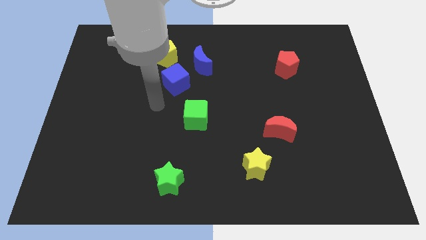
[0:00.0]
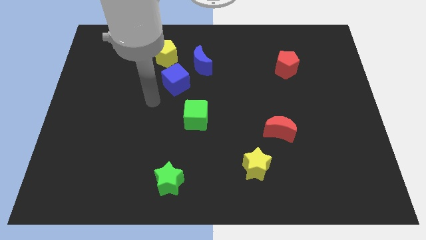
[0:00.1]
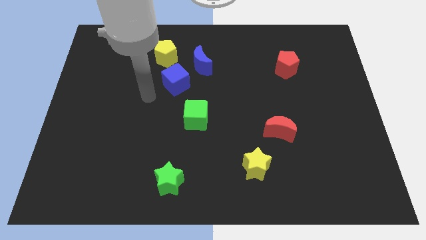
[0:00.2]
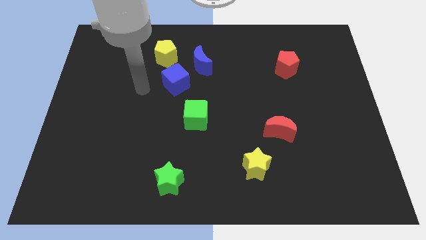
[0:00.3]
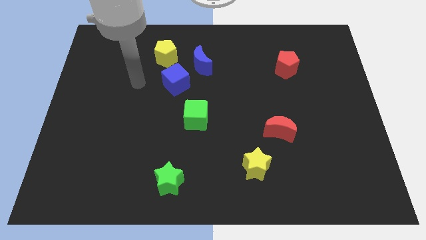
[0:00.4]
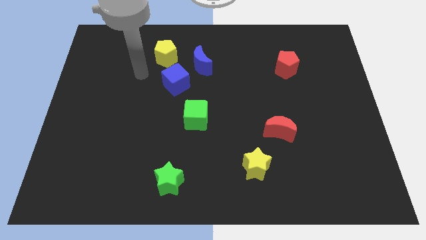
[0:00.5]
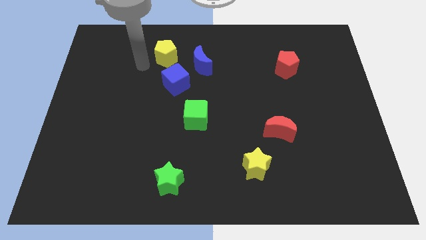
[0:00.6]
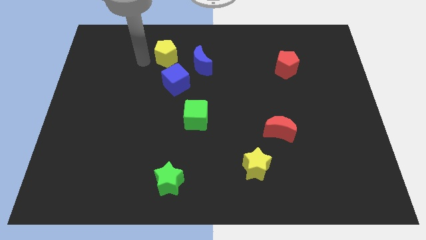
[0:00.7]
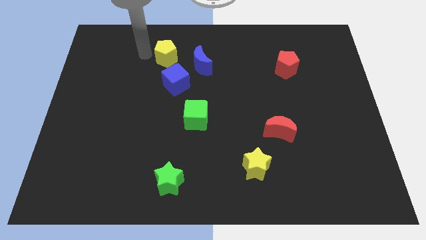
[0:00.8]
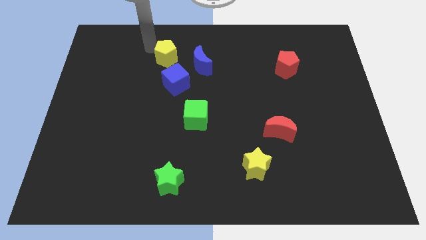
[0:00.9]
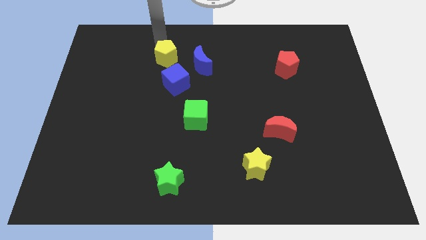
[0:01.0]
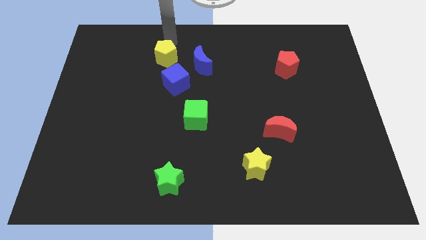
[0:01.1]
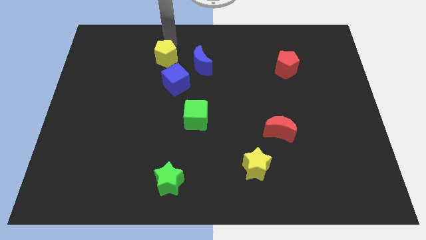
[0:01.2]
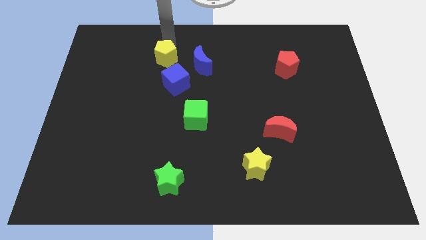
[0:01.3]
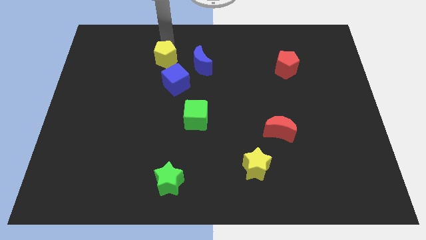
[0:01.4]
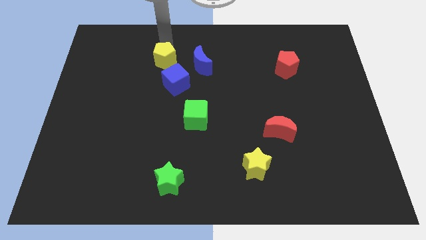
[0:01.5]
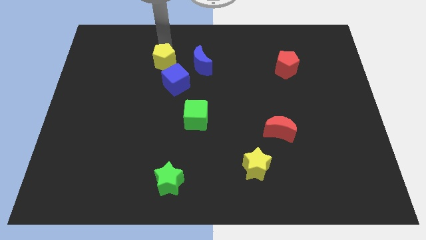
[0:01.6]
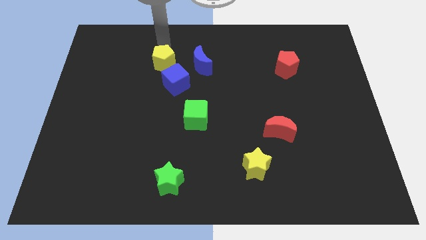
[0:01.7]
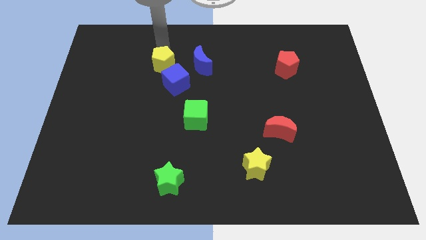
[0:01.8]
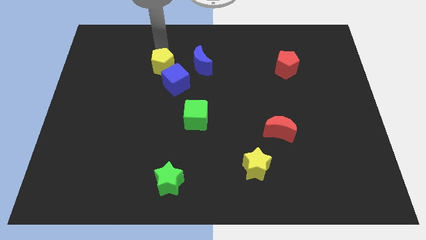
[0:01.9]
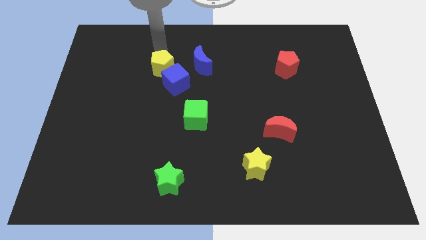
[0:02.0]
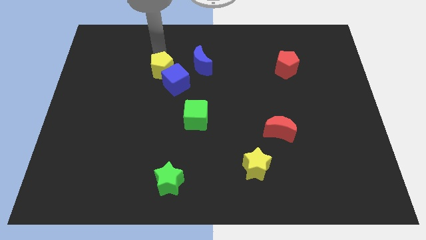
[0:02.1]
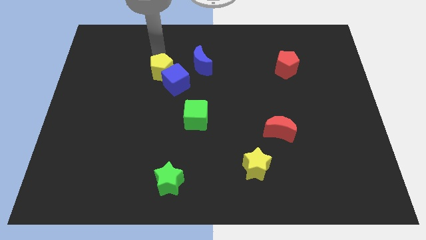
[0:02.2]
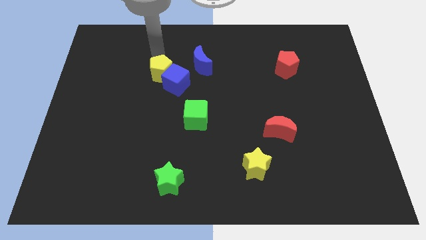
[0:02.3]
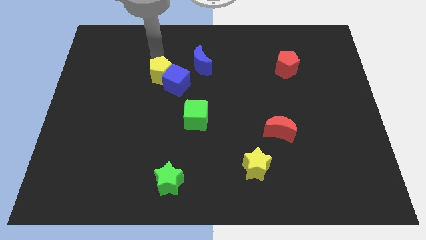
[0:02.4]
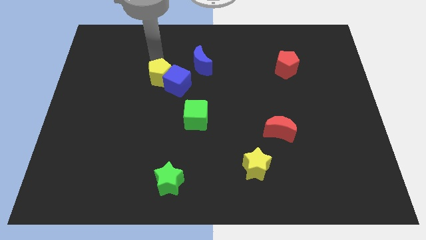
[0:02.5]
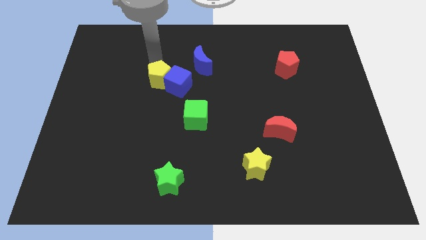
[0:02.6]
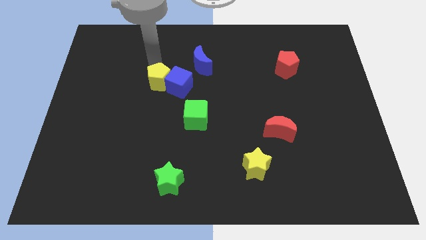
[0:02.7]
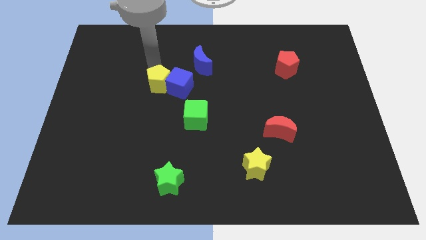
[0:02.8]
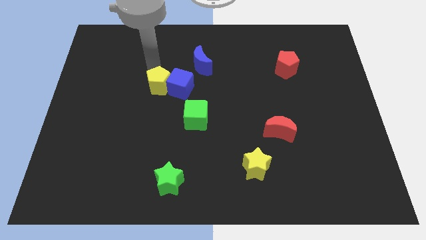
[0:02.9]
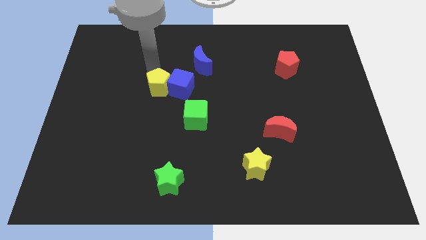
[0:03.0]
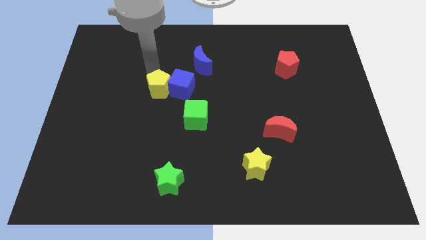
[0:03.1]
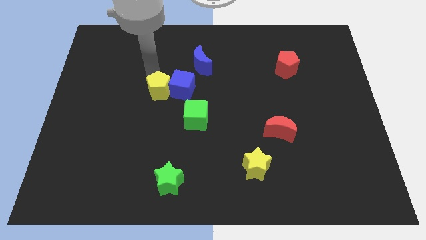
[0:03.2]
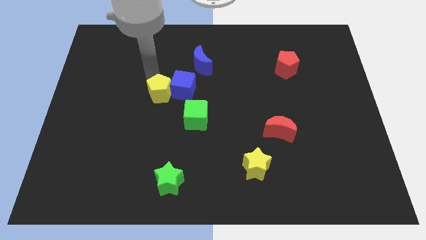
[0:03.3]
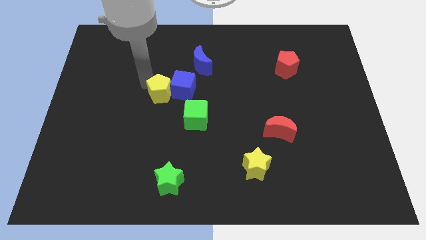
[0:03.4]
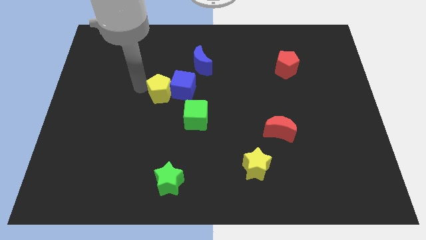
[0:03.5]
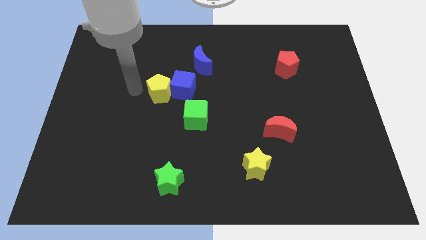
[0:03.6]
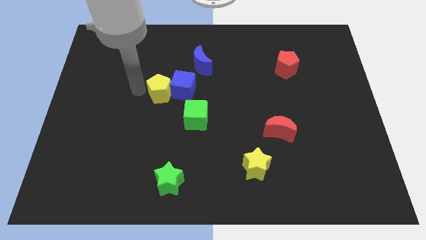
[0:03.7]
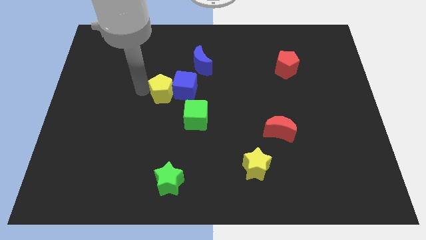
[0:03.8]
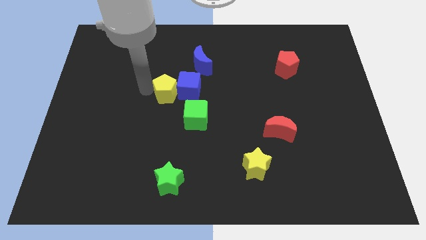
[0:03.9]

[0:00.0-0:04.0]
move the yellow pentagon a little diagonally down and right

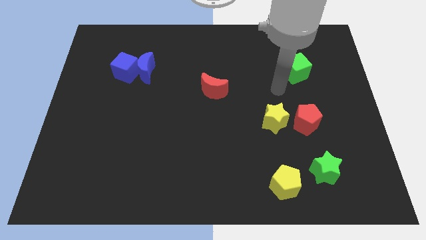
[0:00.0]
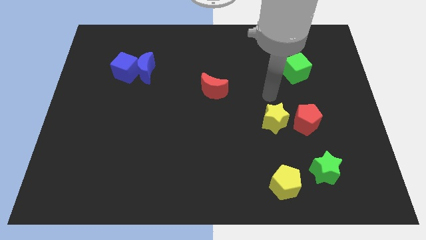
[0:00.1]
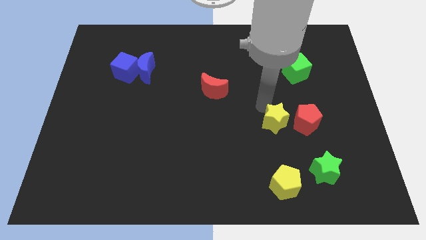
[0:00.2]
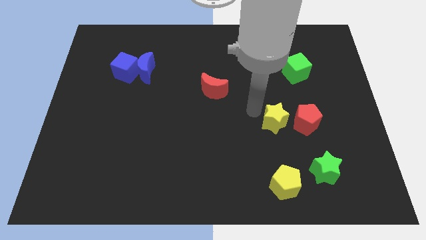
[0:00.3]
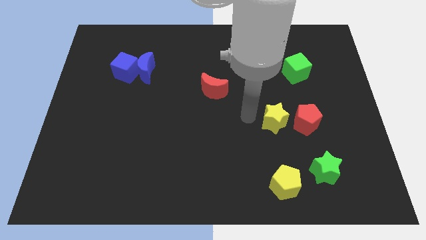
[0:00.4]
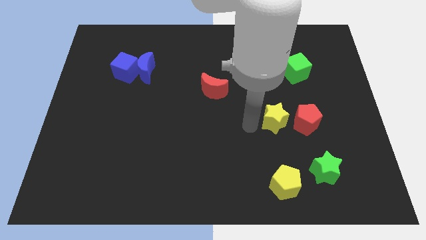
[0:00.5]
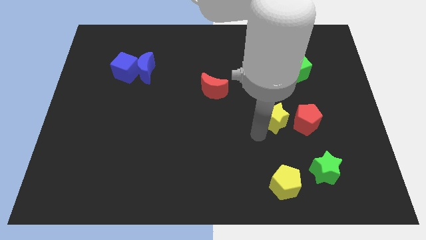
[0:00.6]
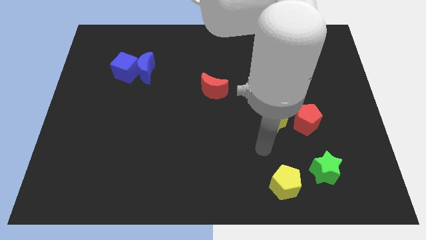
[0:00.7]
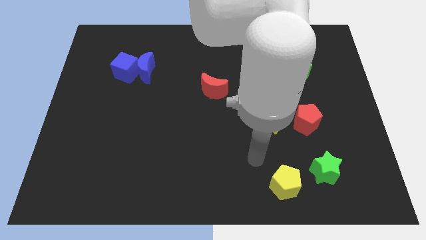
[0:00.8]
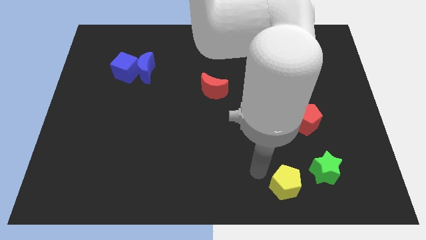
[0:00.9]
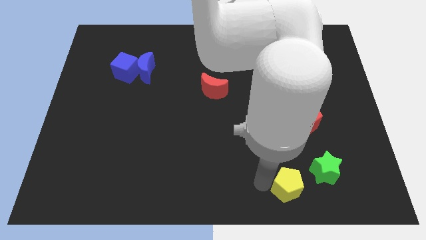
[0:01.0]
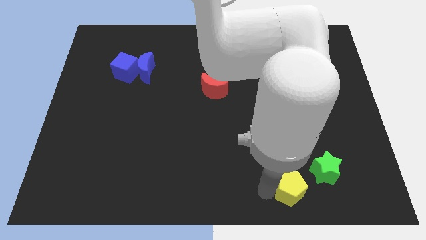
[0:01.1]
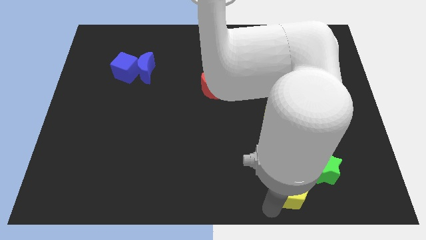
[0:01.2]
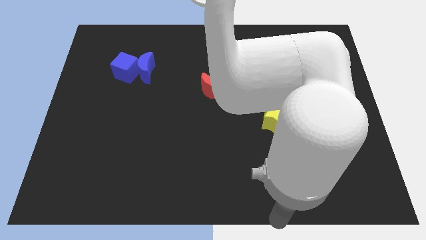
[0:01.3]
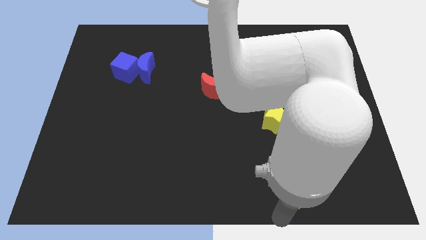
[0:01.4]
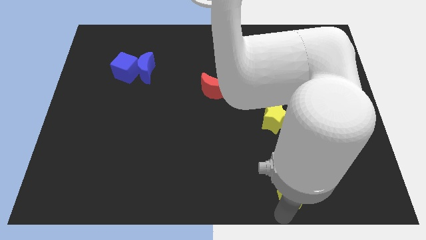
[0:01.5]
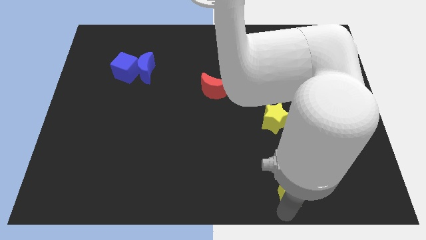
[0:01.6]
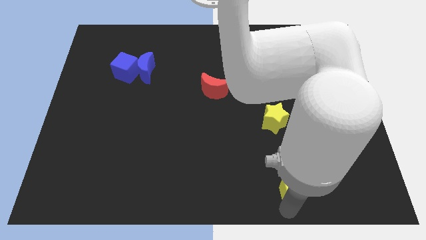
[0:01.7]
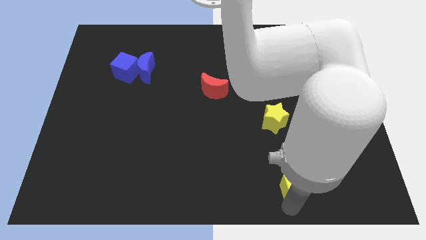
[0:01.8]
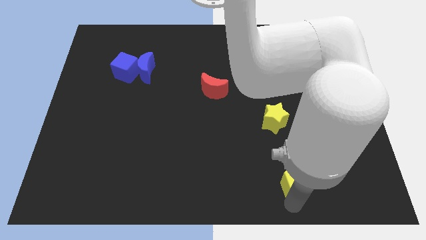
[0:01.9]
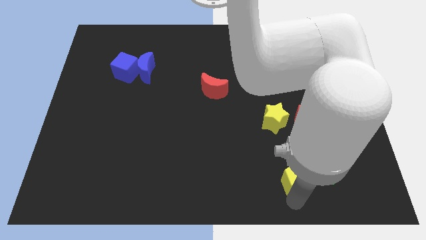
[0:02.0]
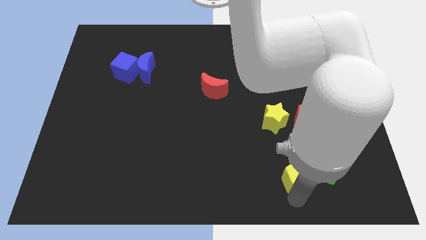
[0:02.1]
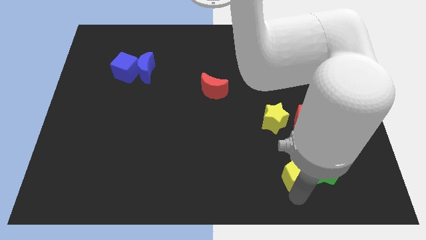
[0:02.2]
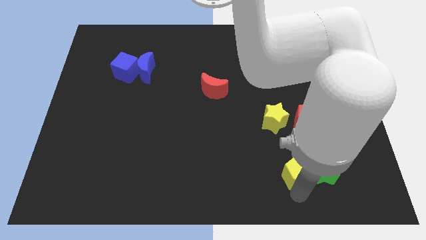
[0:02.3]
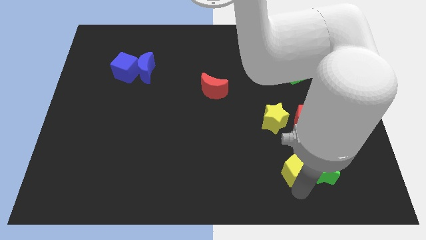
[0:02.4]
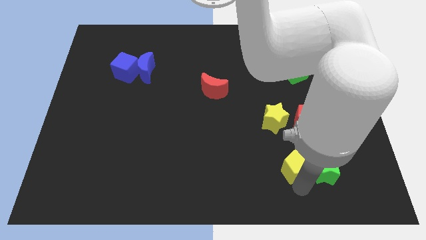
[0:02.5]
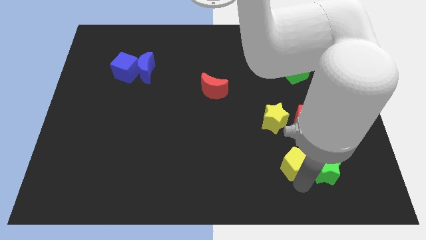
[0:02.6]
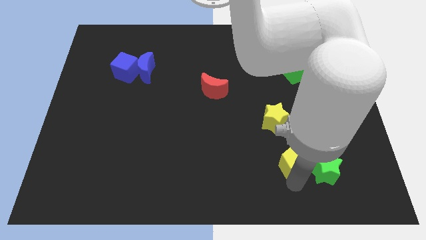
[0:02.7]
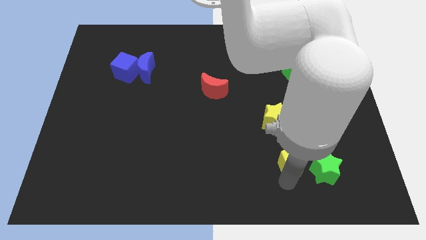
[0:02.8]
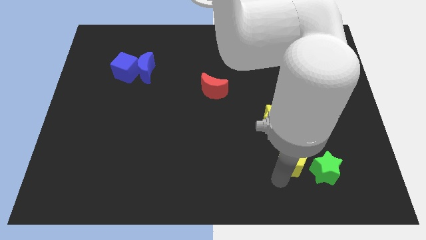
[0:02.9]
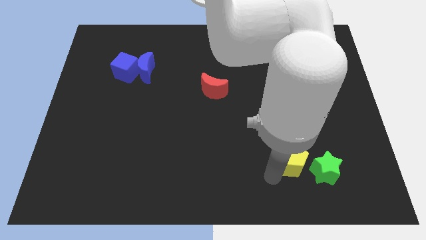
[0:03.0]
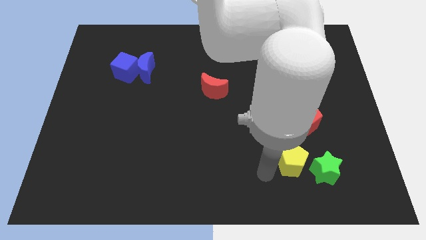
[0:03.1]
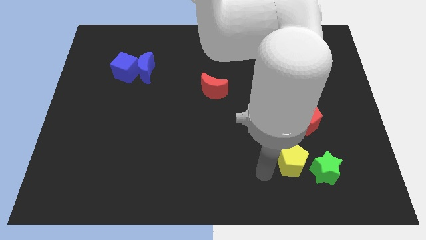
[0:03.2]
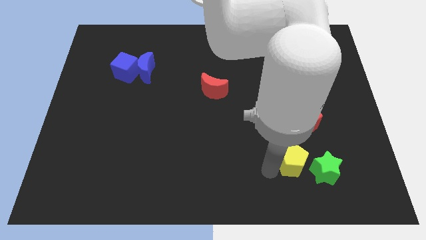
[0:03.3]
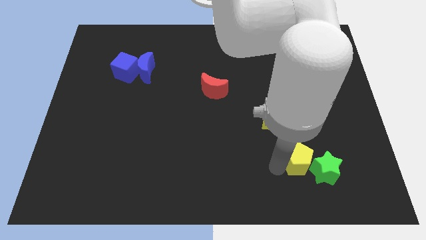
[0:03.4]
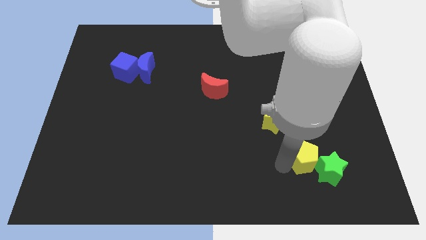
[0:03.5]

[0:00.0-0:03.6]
move the yellow pentagon somewhat upwards and to the right diagonally

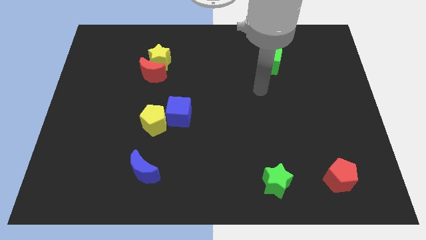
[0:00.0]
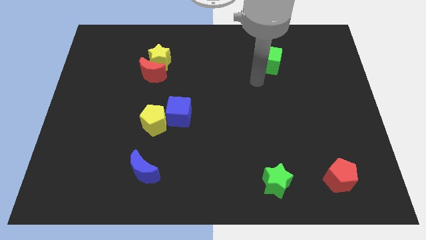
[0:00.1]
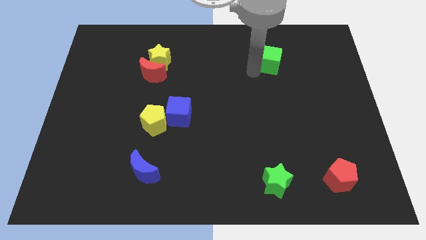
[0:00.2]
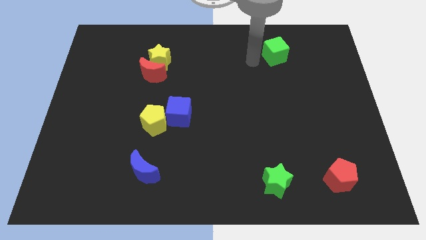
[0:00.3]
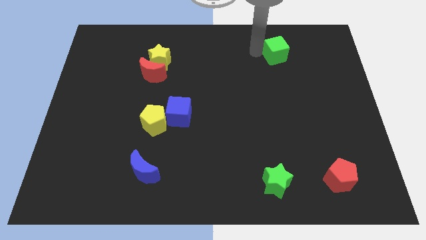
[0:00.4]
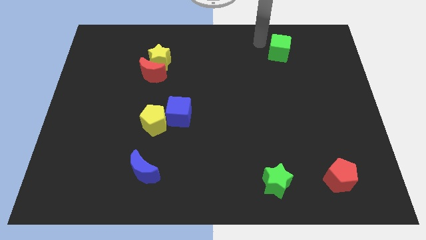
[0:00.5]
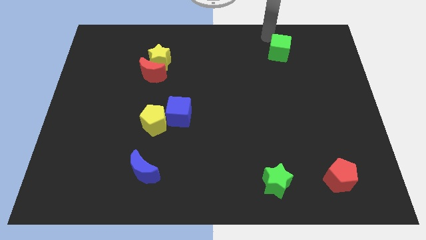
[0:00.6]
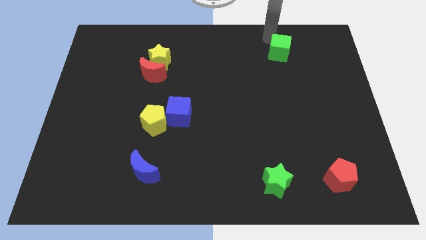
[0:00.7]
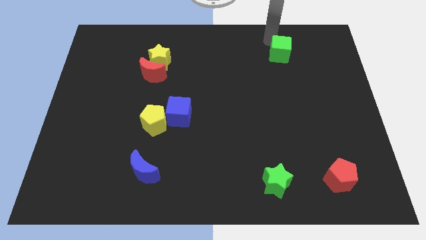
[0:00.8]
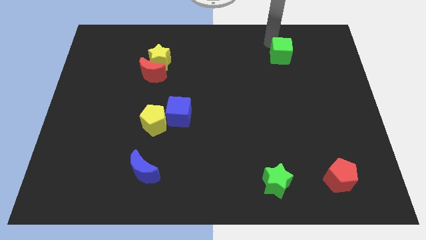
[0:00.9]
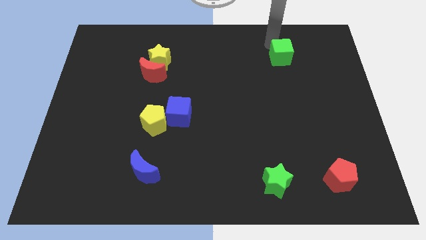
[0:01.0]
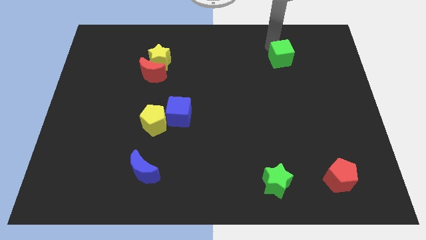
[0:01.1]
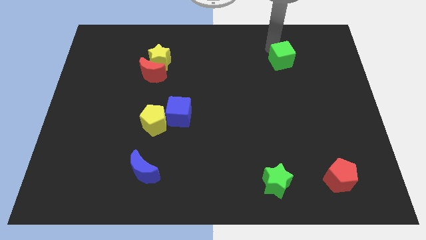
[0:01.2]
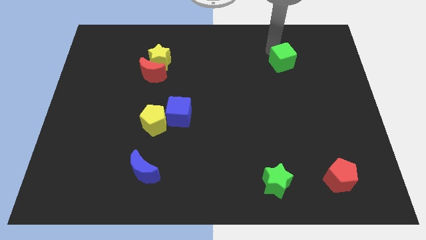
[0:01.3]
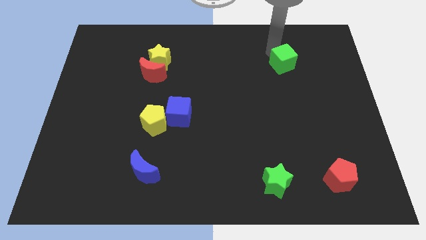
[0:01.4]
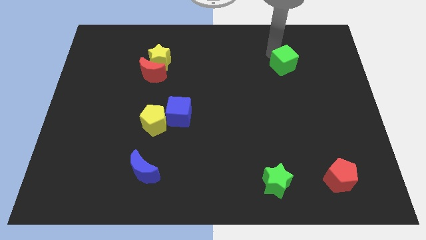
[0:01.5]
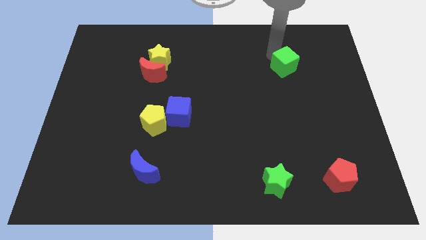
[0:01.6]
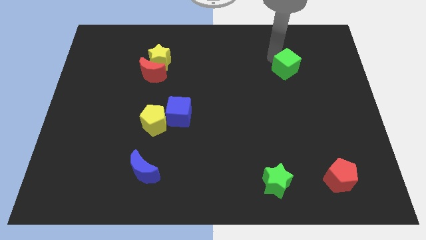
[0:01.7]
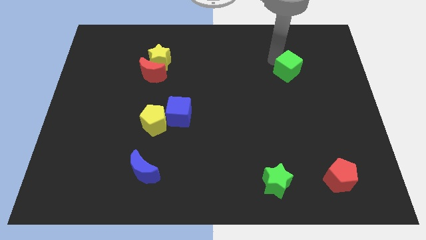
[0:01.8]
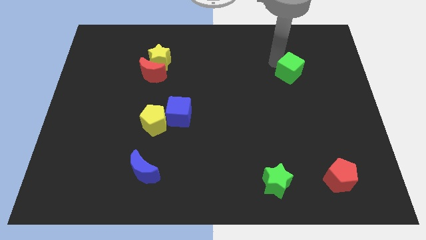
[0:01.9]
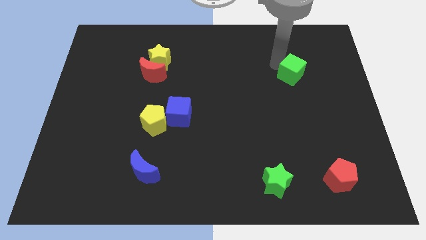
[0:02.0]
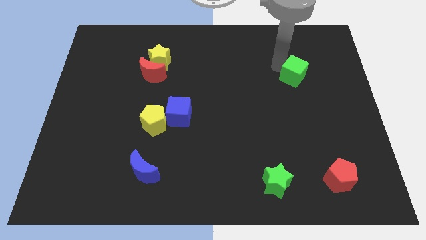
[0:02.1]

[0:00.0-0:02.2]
slightly move the green cube downwards and to the right
